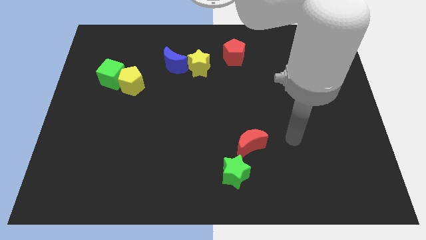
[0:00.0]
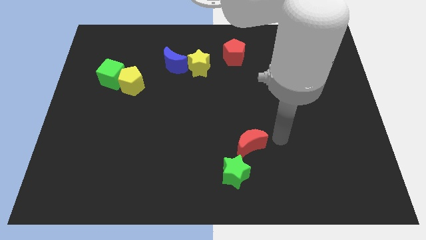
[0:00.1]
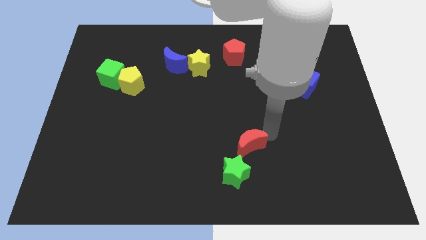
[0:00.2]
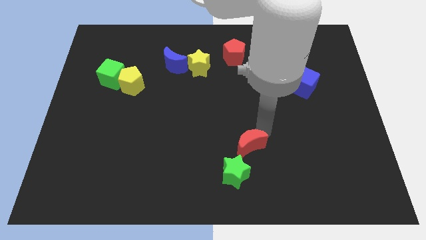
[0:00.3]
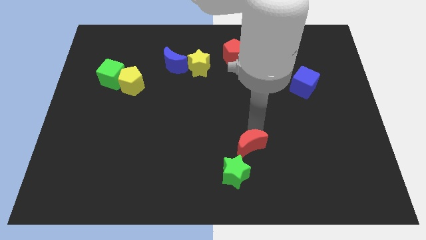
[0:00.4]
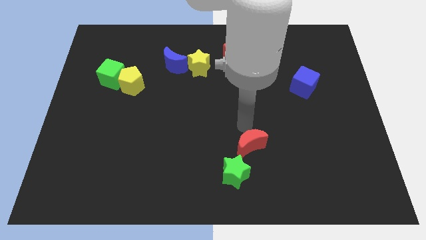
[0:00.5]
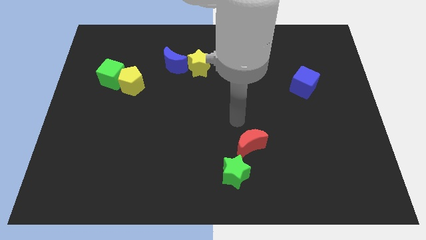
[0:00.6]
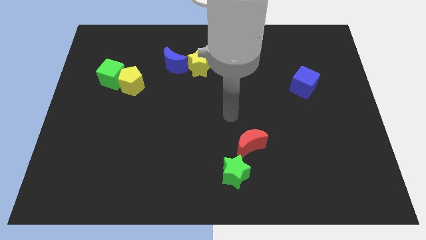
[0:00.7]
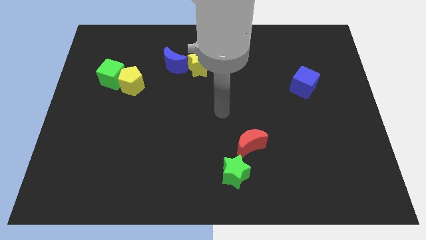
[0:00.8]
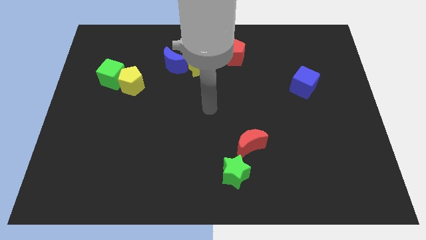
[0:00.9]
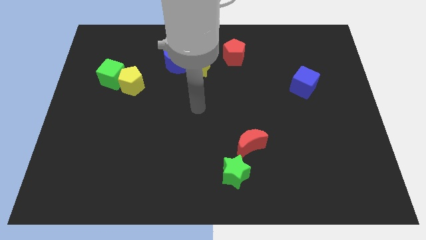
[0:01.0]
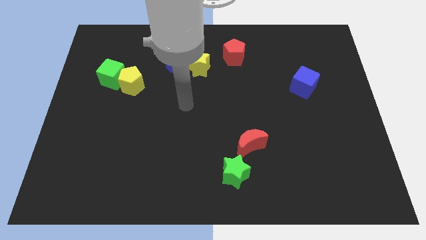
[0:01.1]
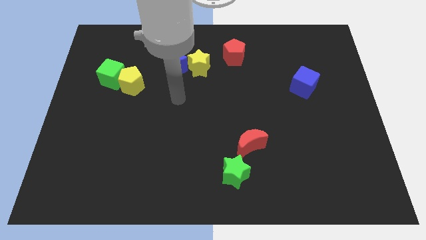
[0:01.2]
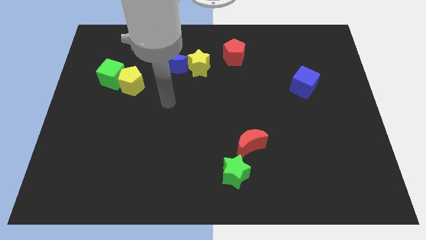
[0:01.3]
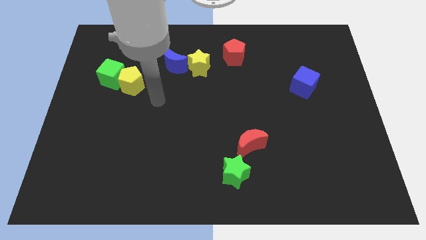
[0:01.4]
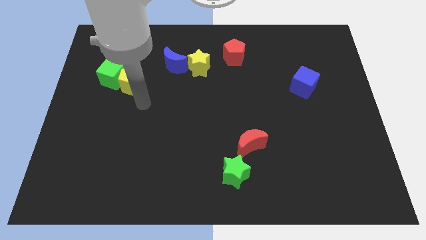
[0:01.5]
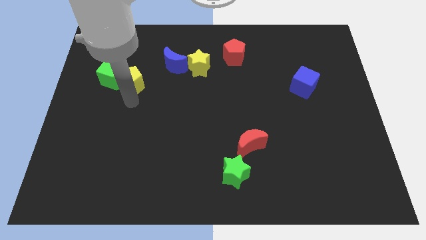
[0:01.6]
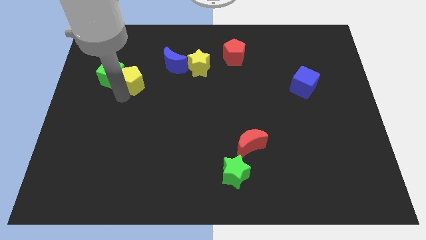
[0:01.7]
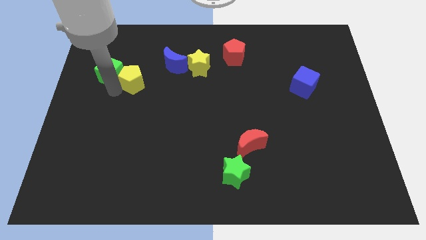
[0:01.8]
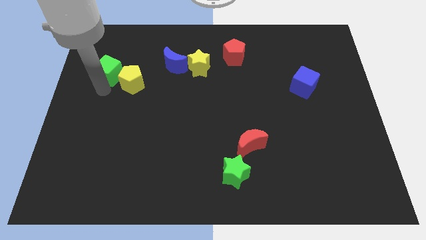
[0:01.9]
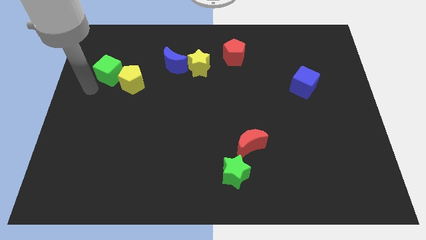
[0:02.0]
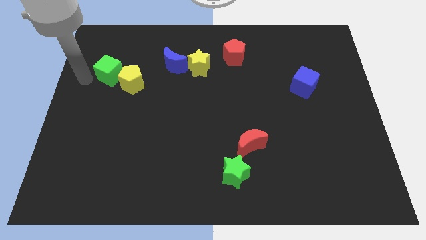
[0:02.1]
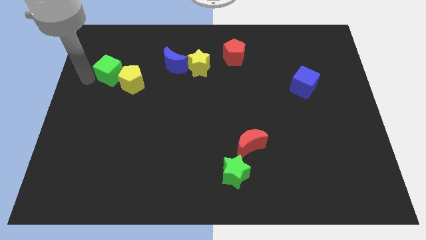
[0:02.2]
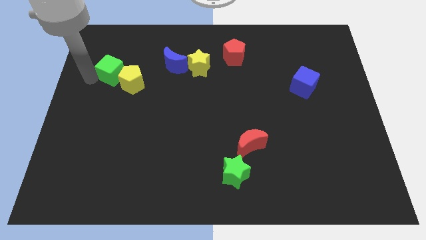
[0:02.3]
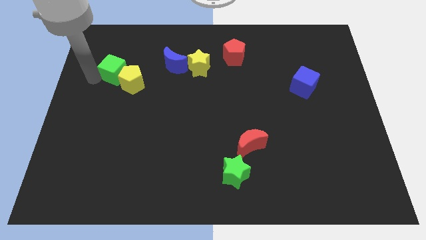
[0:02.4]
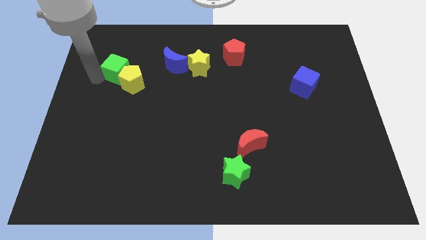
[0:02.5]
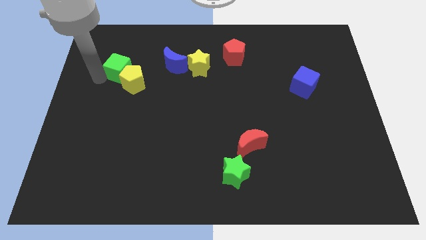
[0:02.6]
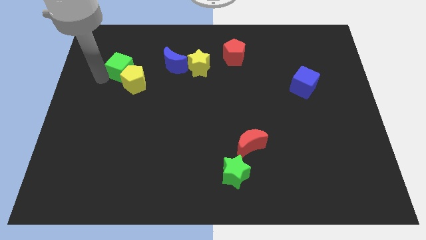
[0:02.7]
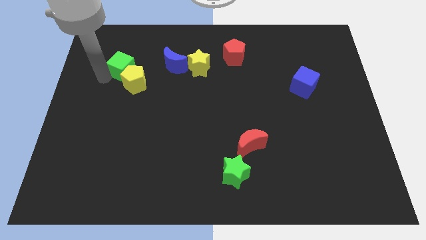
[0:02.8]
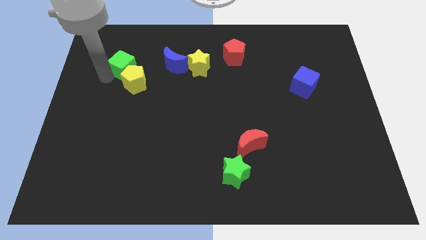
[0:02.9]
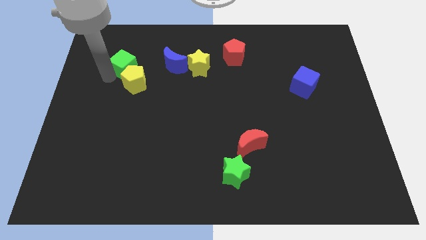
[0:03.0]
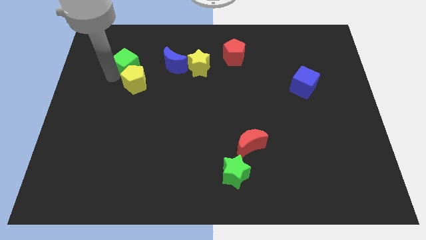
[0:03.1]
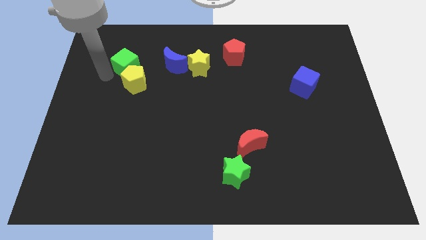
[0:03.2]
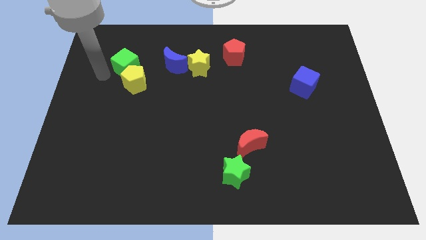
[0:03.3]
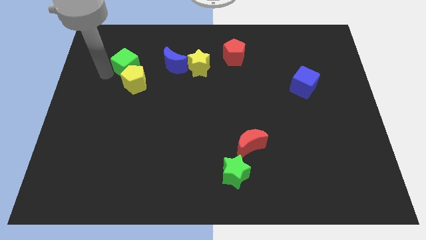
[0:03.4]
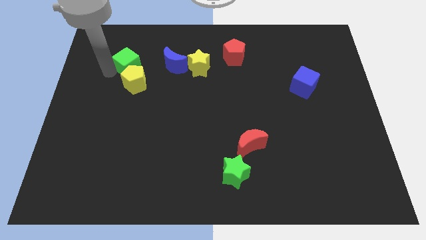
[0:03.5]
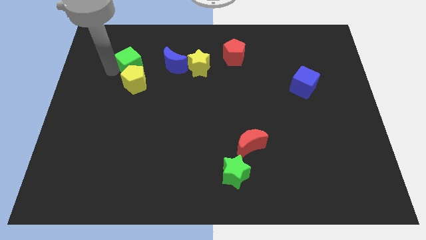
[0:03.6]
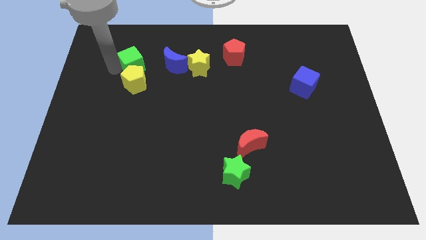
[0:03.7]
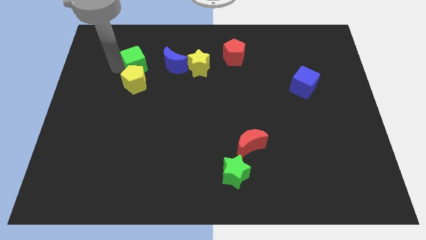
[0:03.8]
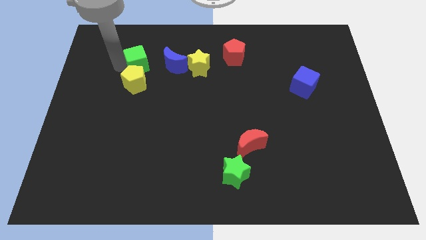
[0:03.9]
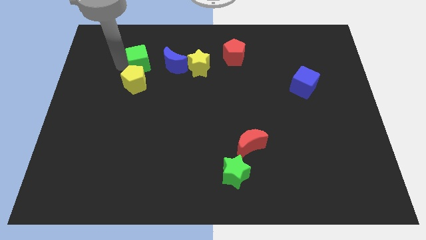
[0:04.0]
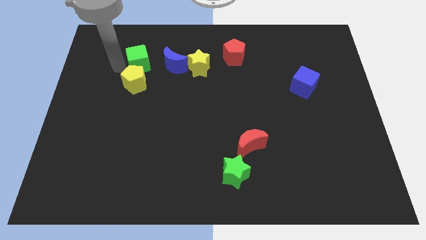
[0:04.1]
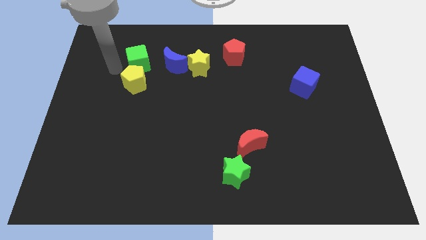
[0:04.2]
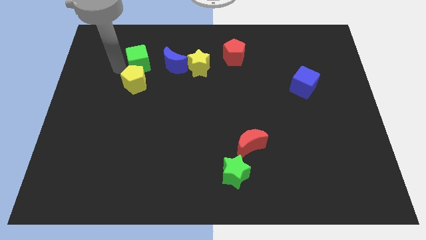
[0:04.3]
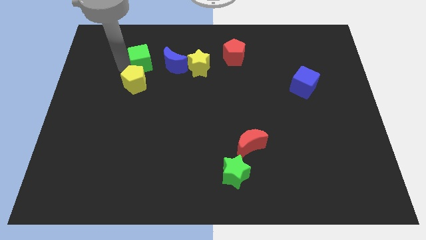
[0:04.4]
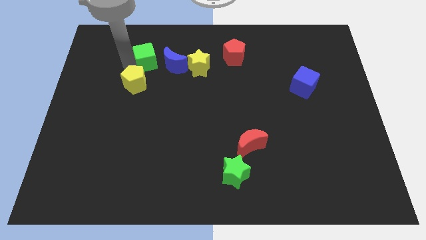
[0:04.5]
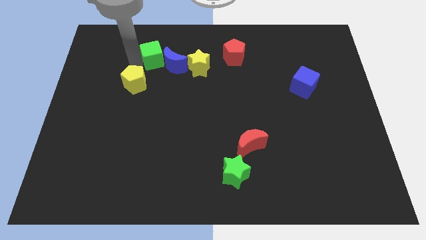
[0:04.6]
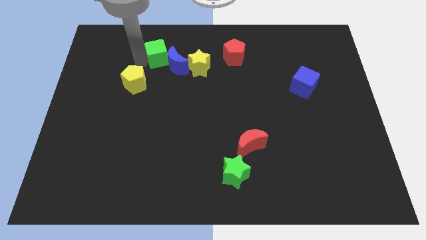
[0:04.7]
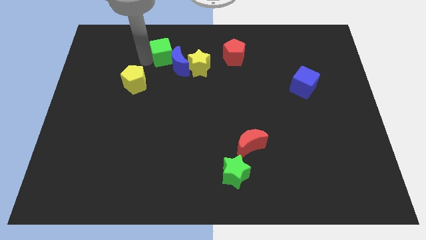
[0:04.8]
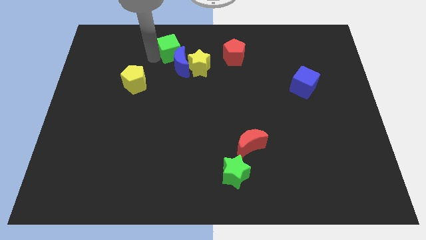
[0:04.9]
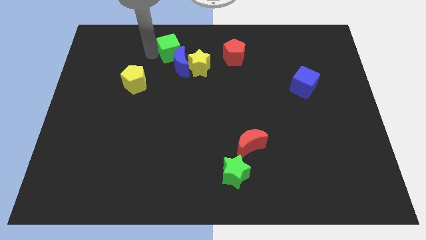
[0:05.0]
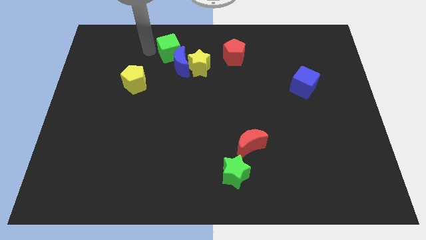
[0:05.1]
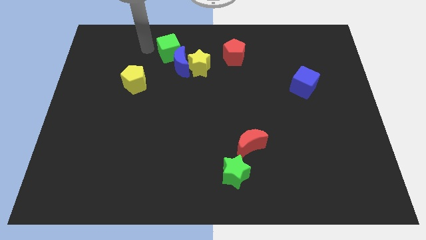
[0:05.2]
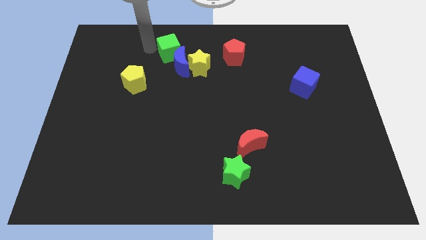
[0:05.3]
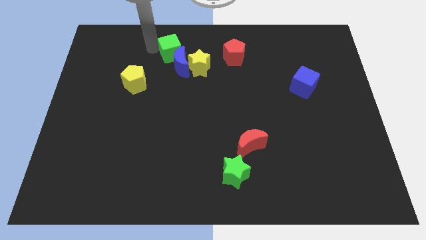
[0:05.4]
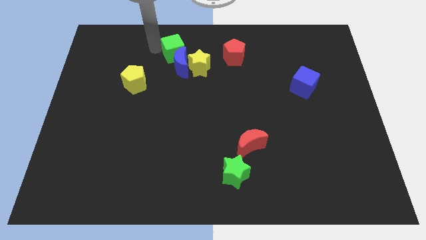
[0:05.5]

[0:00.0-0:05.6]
slide the green cube to the left side of the red pentagon

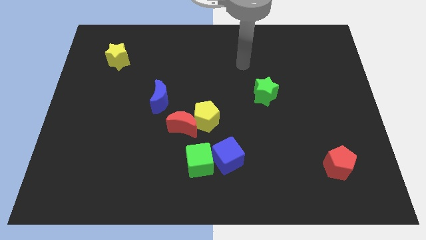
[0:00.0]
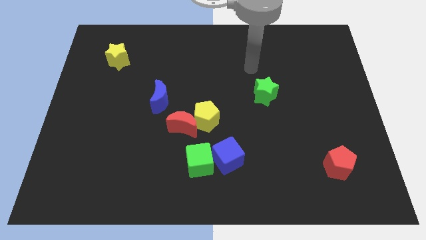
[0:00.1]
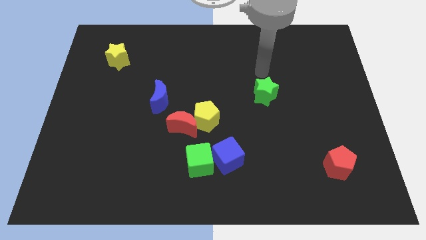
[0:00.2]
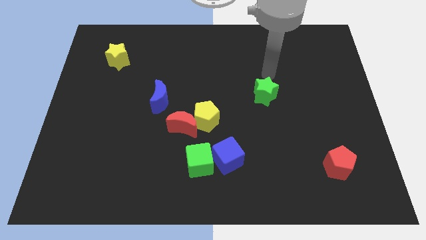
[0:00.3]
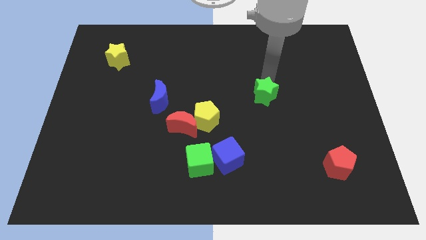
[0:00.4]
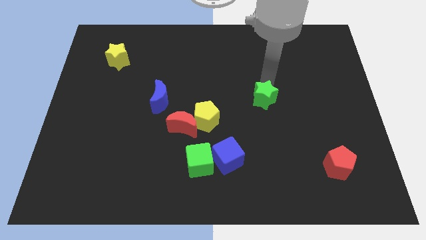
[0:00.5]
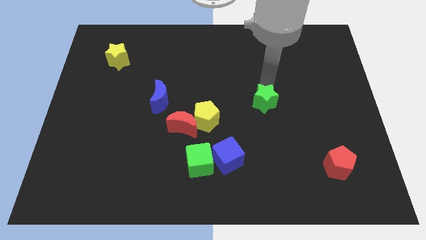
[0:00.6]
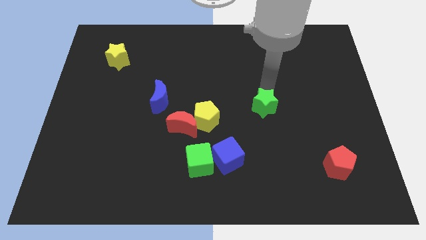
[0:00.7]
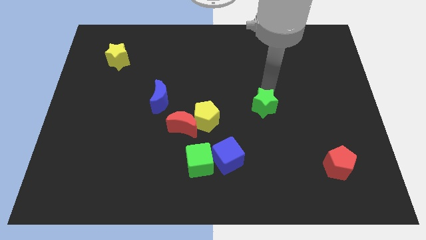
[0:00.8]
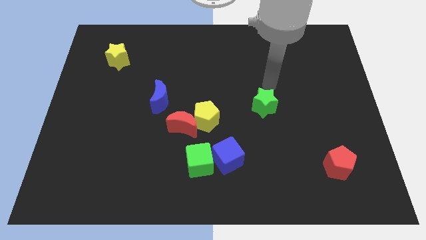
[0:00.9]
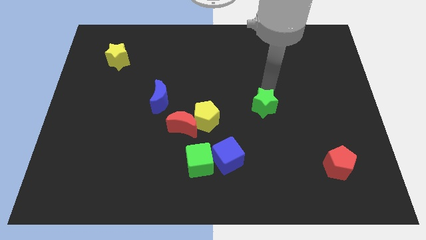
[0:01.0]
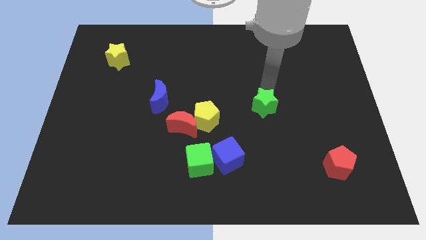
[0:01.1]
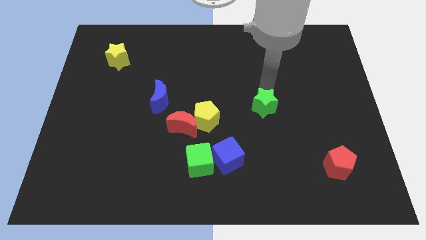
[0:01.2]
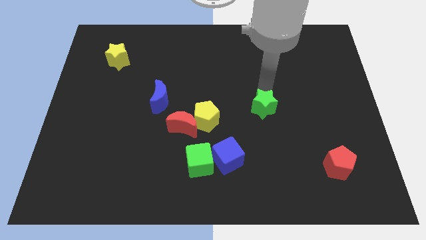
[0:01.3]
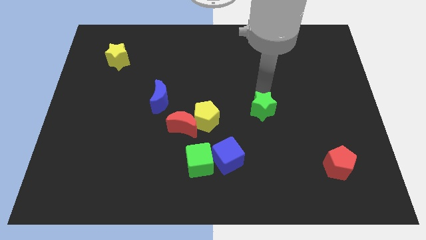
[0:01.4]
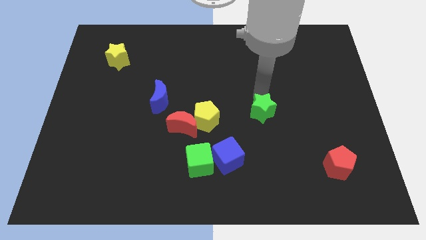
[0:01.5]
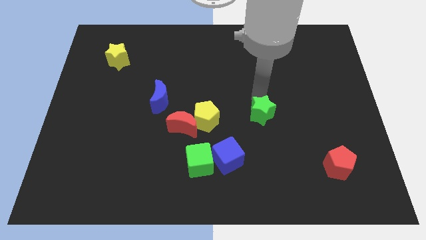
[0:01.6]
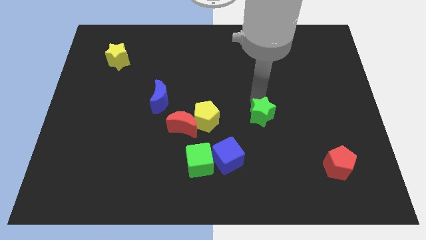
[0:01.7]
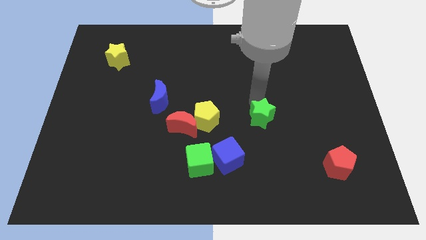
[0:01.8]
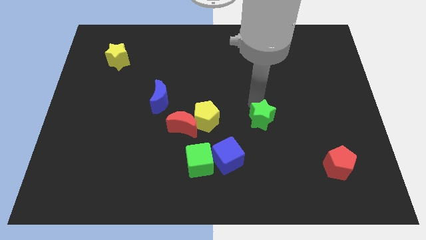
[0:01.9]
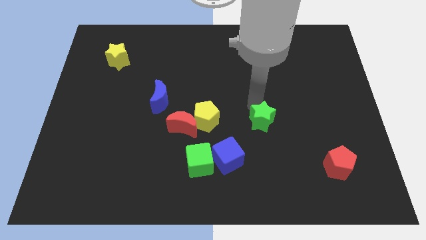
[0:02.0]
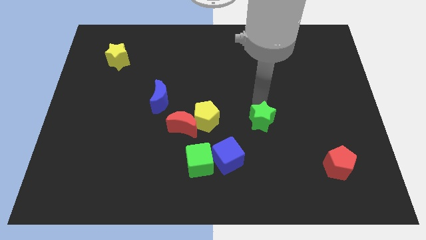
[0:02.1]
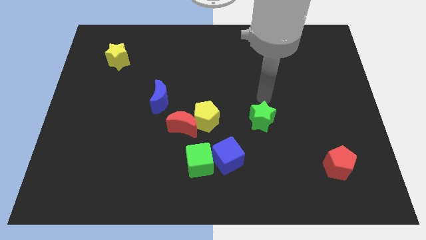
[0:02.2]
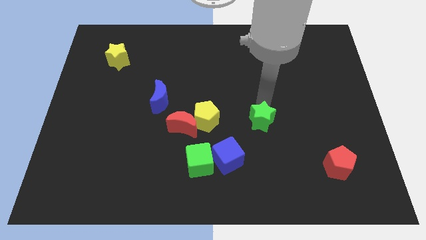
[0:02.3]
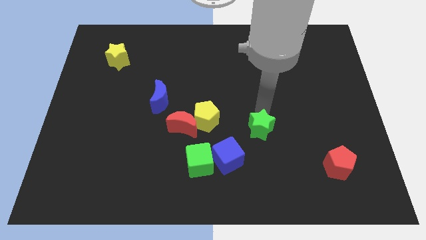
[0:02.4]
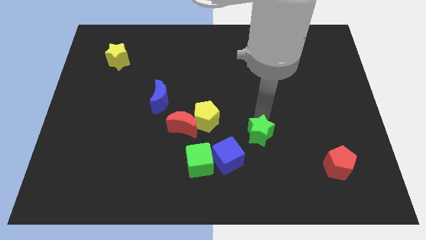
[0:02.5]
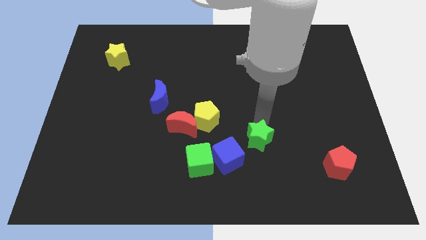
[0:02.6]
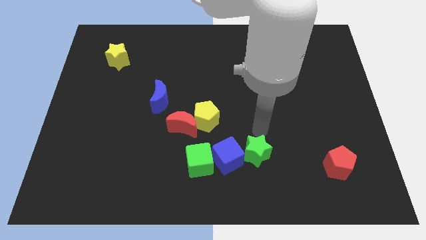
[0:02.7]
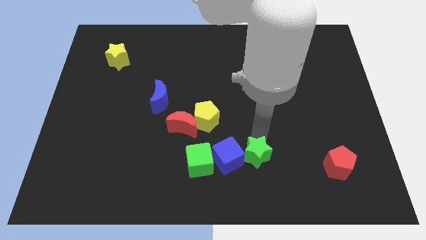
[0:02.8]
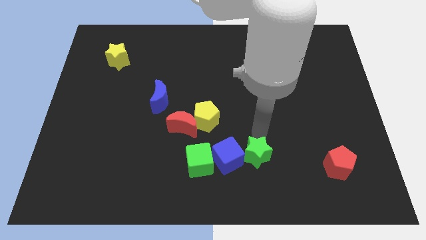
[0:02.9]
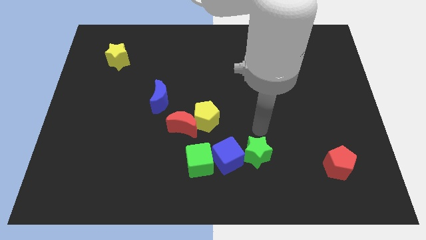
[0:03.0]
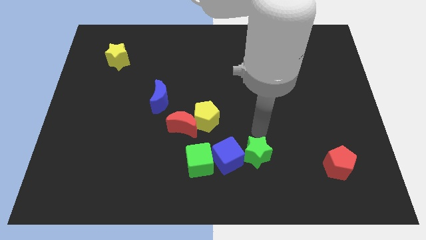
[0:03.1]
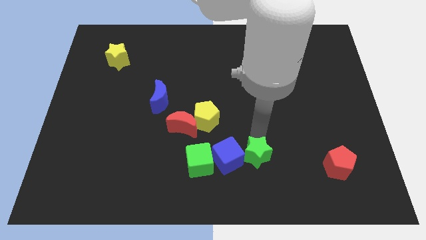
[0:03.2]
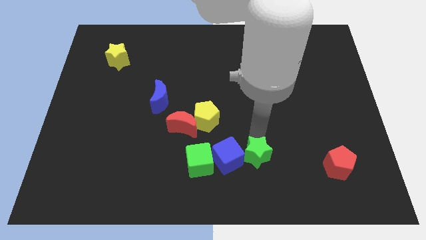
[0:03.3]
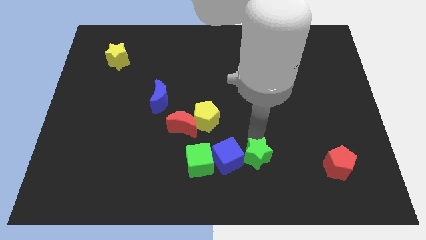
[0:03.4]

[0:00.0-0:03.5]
slide the green star to the bottom right side of the blue cube
